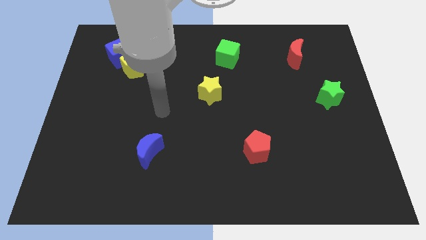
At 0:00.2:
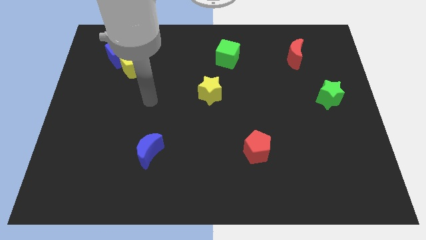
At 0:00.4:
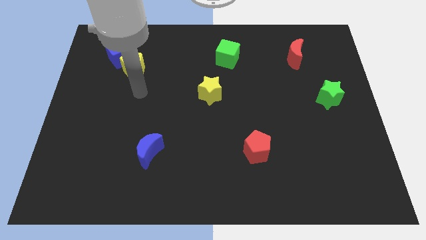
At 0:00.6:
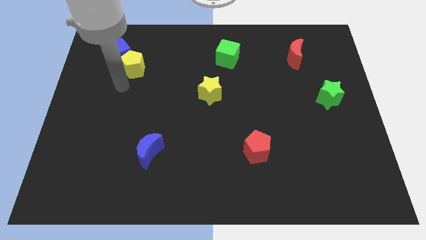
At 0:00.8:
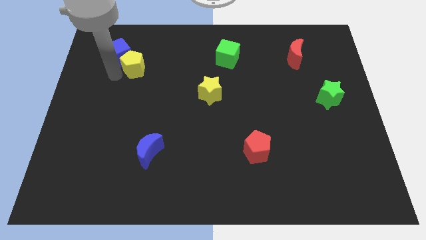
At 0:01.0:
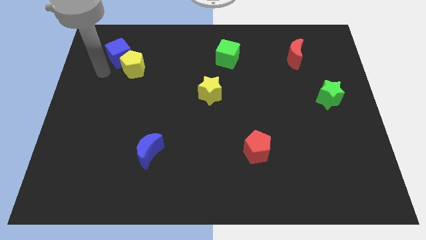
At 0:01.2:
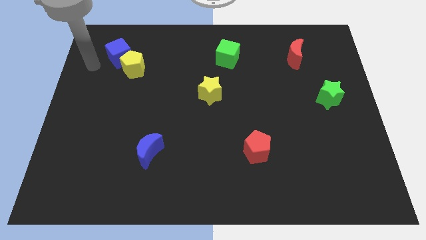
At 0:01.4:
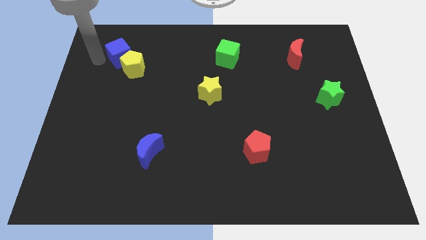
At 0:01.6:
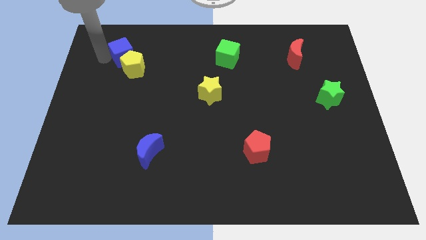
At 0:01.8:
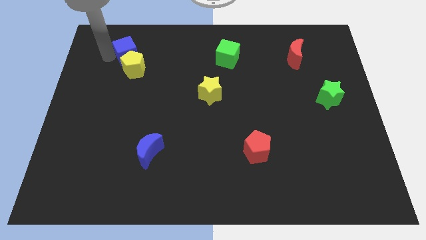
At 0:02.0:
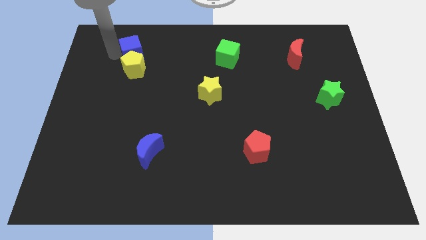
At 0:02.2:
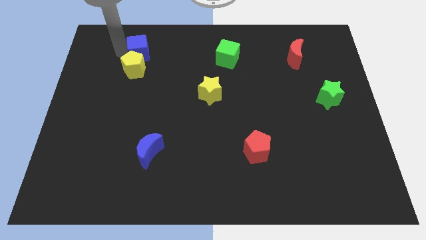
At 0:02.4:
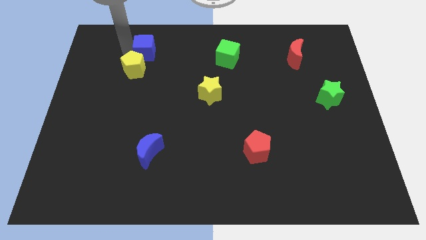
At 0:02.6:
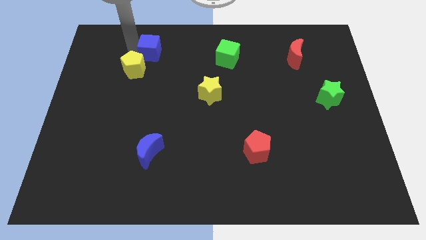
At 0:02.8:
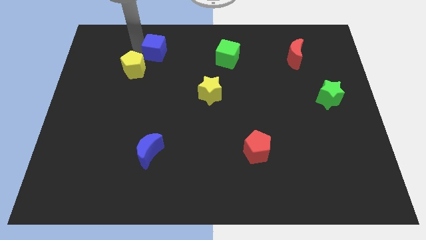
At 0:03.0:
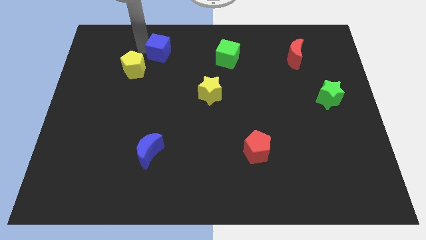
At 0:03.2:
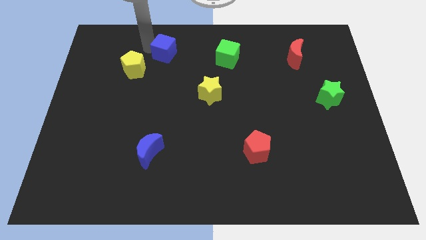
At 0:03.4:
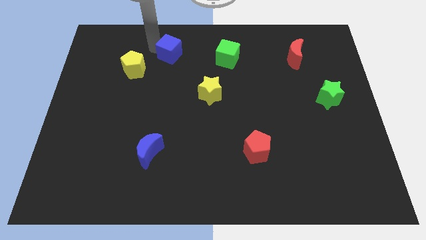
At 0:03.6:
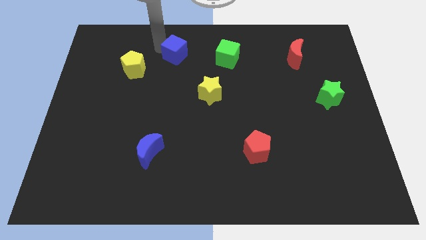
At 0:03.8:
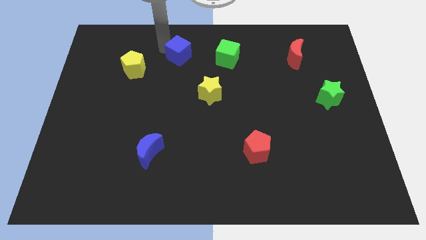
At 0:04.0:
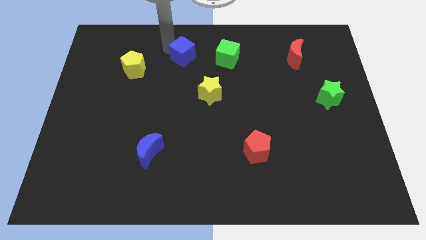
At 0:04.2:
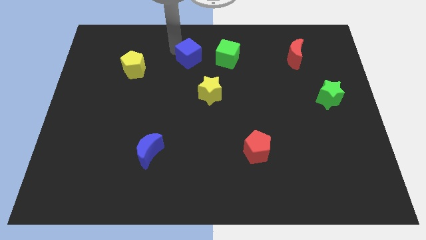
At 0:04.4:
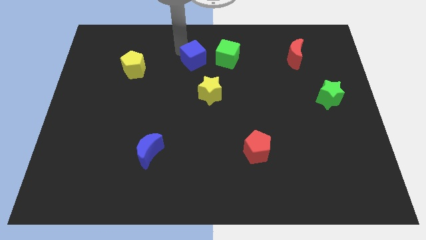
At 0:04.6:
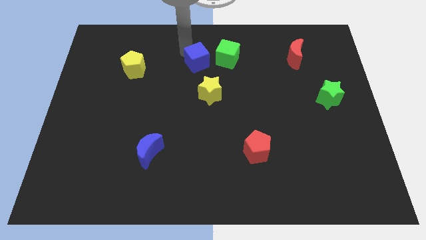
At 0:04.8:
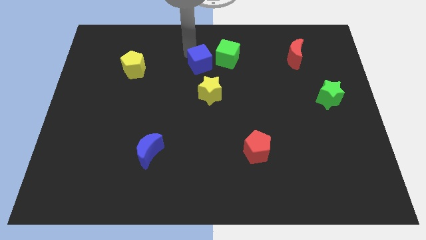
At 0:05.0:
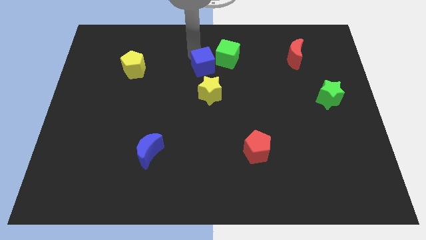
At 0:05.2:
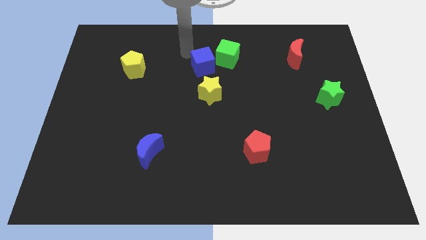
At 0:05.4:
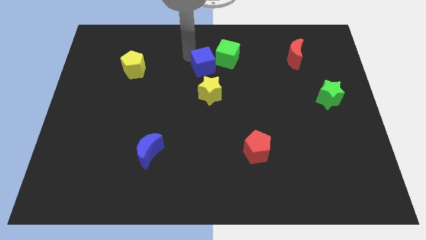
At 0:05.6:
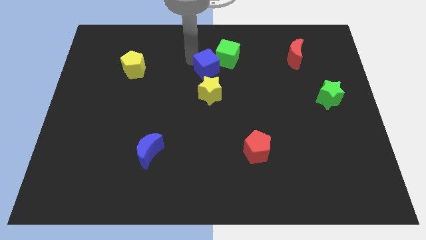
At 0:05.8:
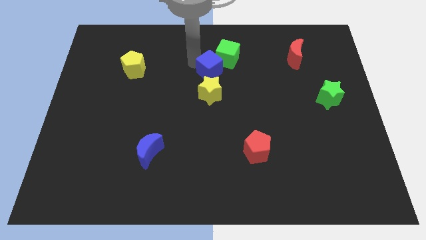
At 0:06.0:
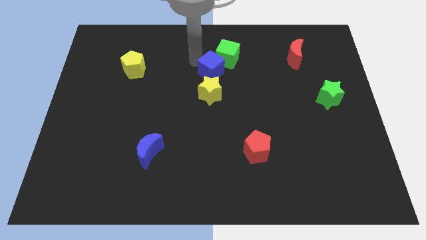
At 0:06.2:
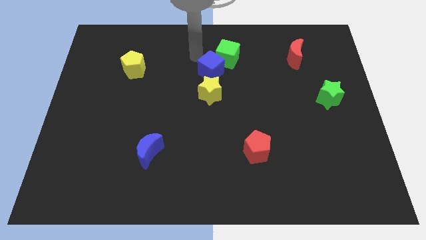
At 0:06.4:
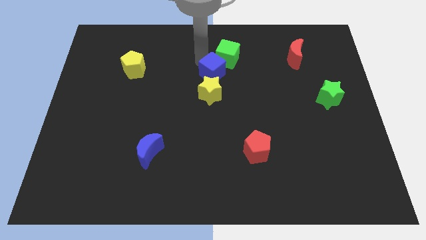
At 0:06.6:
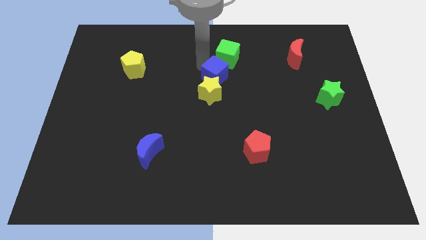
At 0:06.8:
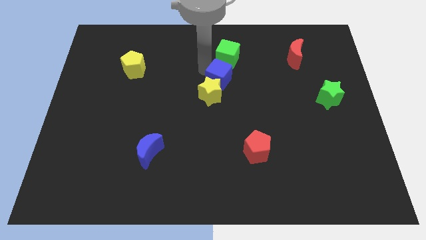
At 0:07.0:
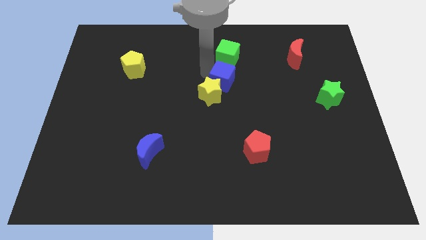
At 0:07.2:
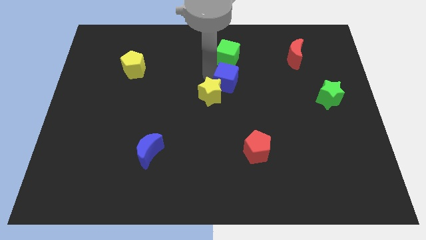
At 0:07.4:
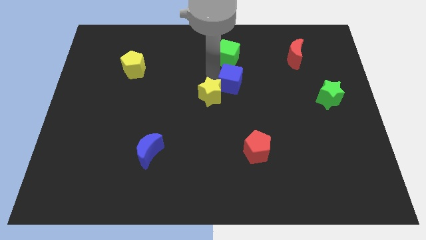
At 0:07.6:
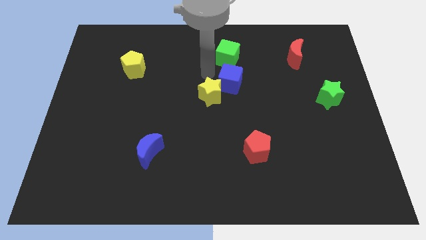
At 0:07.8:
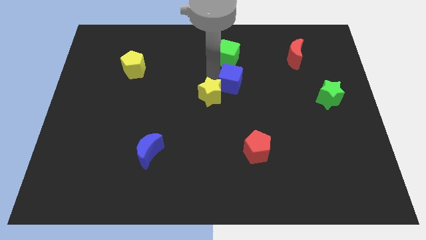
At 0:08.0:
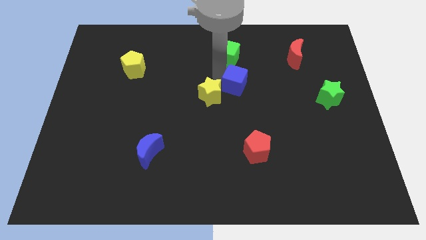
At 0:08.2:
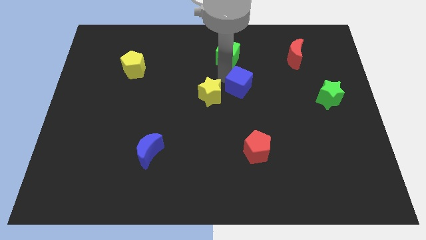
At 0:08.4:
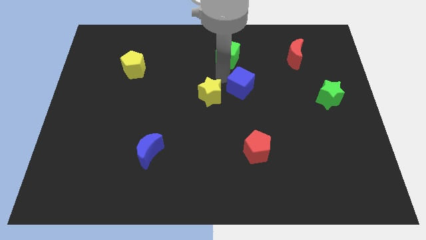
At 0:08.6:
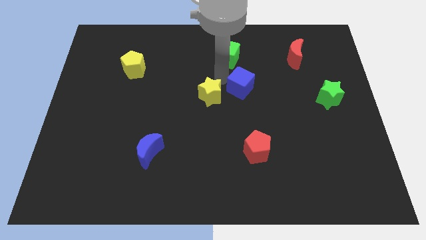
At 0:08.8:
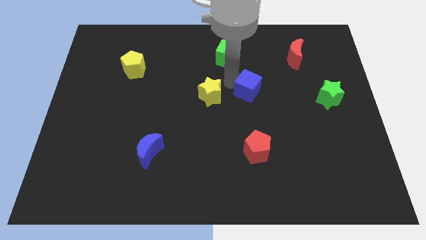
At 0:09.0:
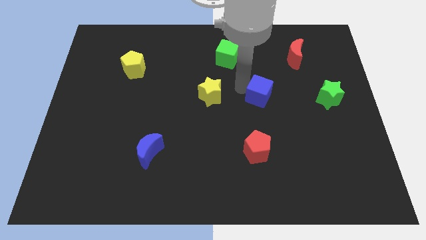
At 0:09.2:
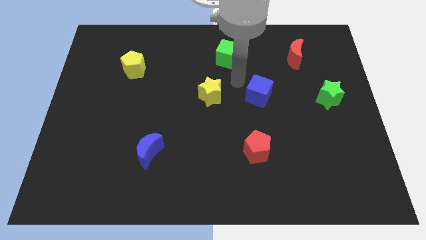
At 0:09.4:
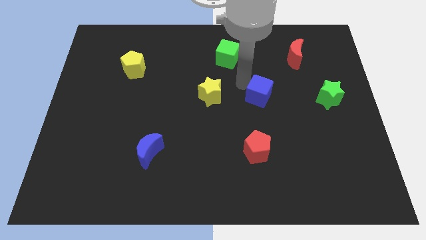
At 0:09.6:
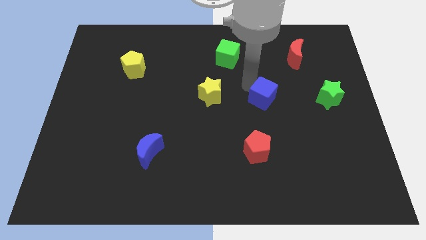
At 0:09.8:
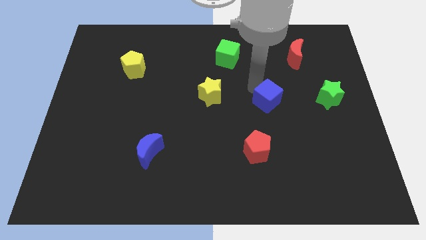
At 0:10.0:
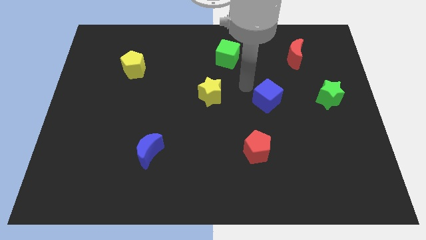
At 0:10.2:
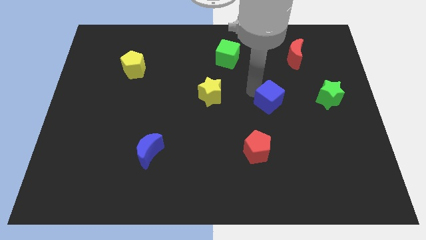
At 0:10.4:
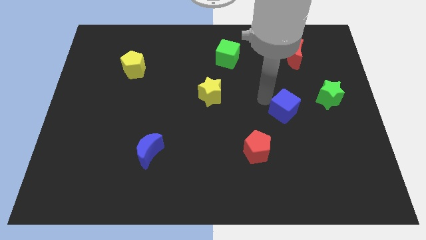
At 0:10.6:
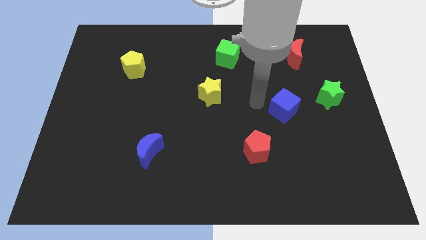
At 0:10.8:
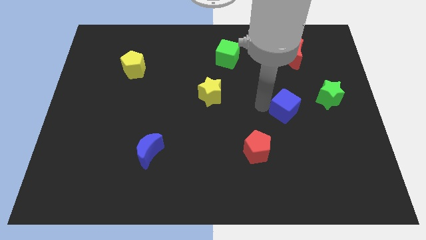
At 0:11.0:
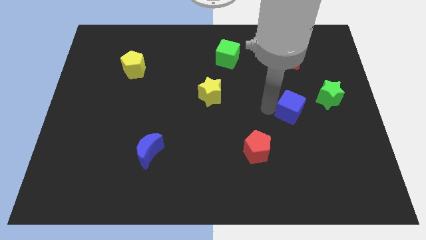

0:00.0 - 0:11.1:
slide the blue cube to the bottom left side of the green star

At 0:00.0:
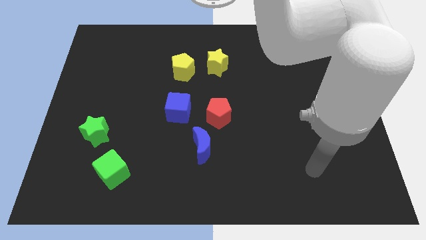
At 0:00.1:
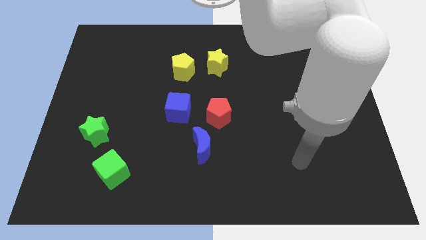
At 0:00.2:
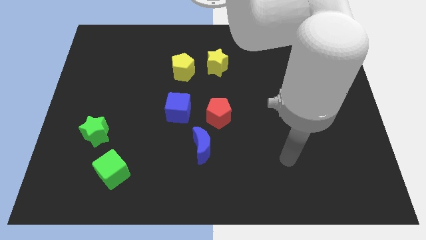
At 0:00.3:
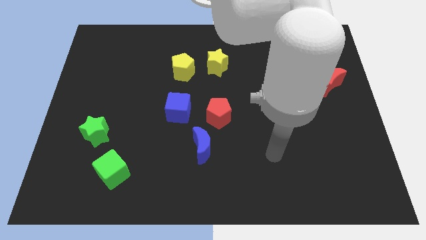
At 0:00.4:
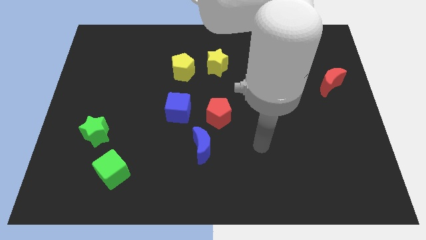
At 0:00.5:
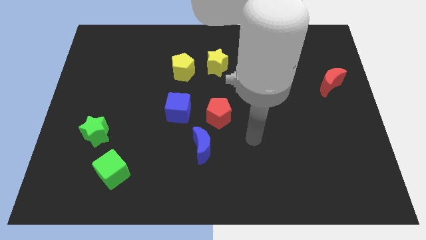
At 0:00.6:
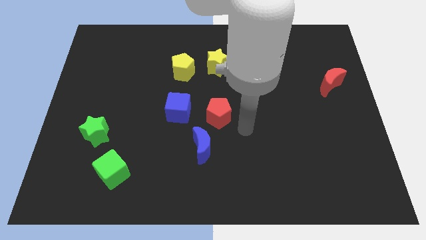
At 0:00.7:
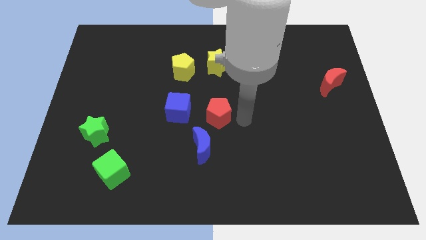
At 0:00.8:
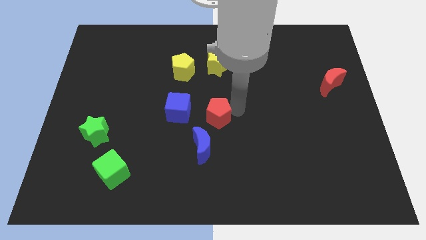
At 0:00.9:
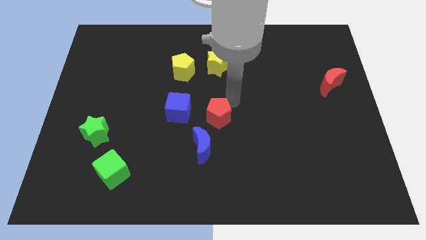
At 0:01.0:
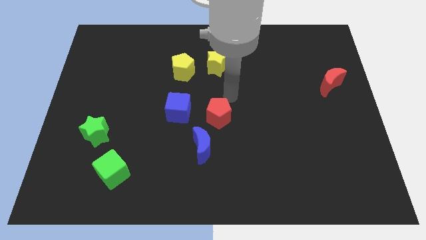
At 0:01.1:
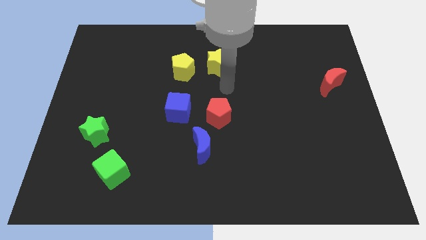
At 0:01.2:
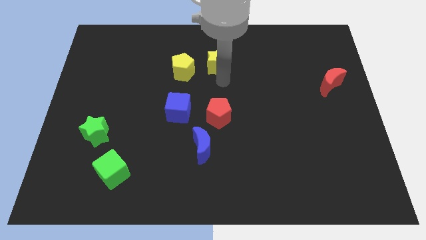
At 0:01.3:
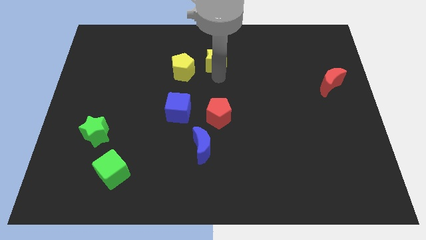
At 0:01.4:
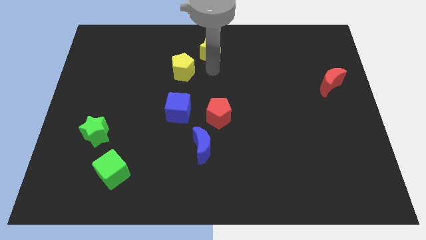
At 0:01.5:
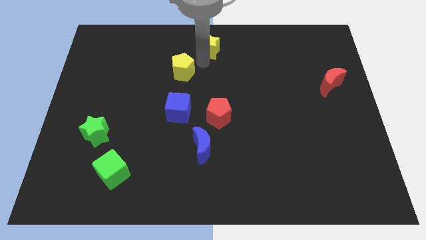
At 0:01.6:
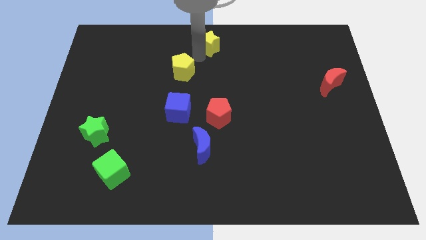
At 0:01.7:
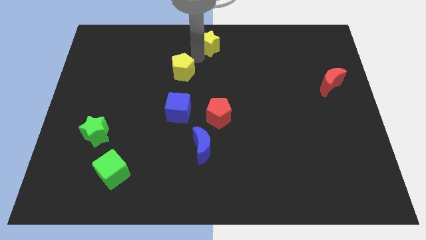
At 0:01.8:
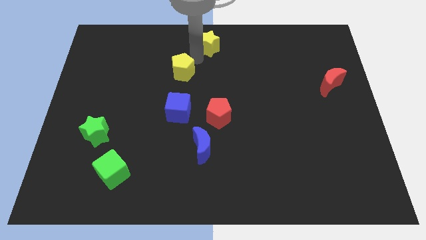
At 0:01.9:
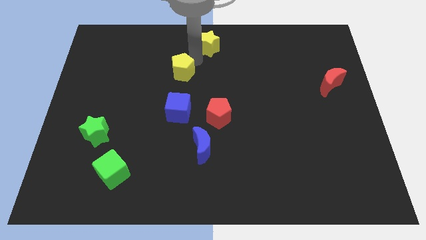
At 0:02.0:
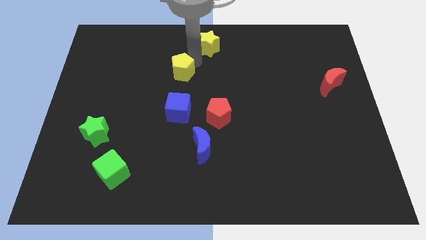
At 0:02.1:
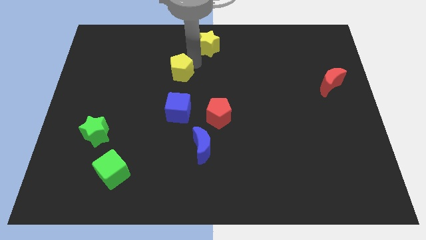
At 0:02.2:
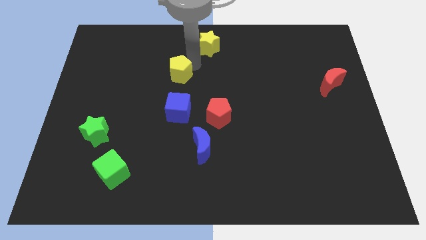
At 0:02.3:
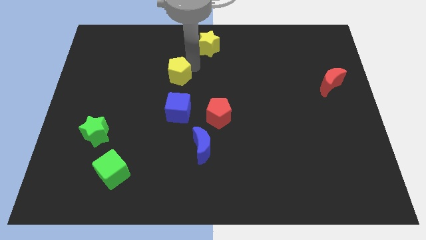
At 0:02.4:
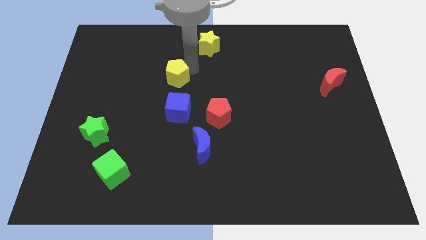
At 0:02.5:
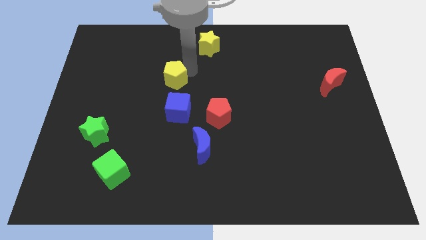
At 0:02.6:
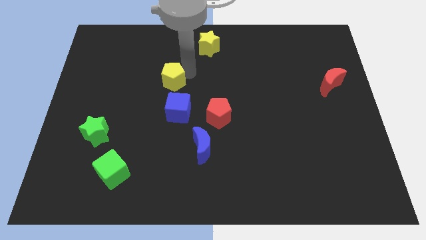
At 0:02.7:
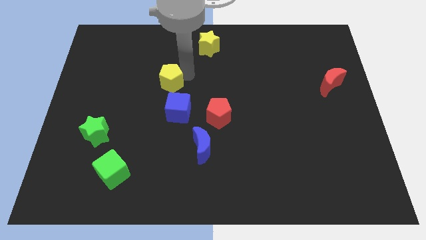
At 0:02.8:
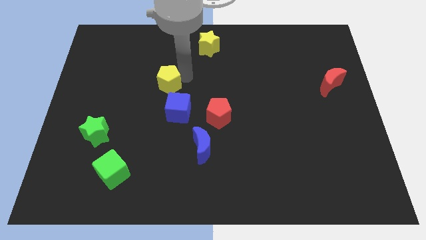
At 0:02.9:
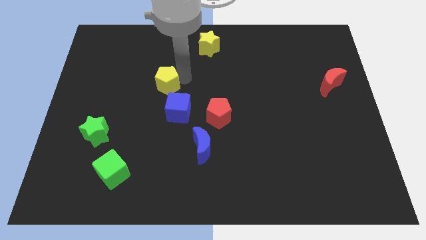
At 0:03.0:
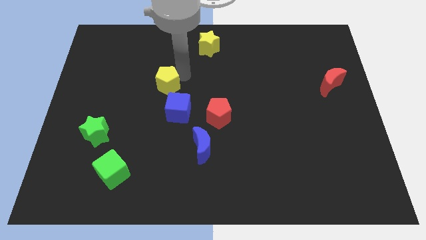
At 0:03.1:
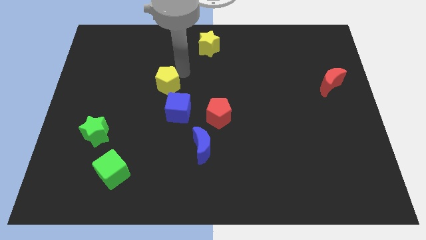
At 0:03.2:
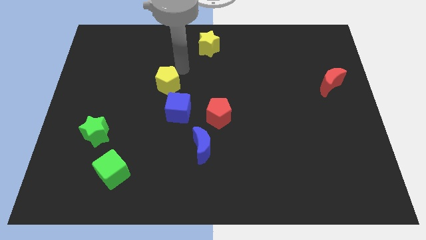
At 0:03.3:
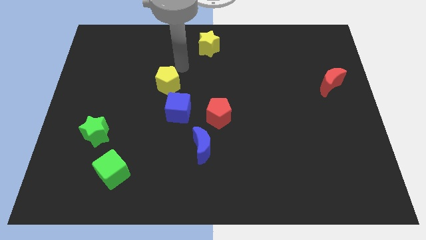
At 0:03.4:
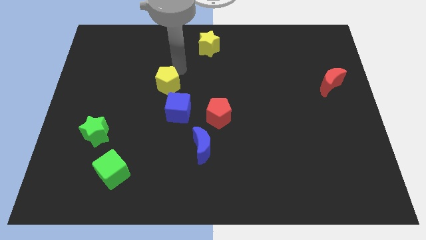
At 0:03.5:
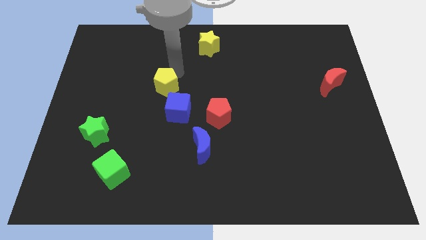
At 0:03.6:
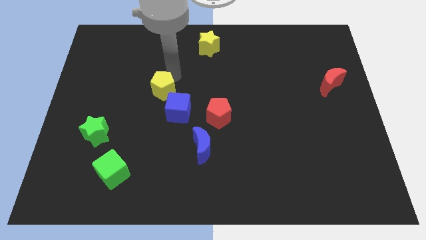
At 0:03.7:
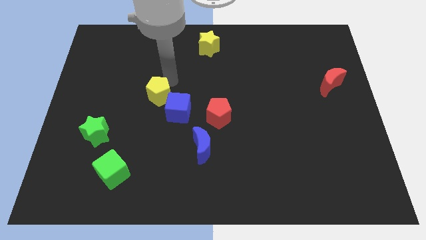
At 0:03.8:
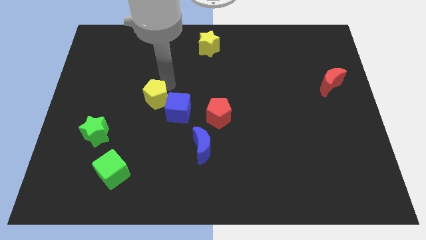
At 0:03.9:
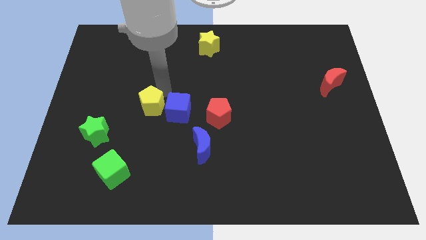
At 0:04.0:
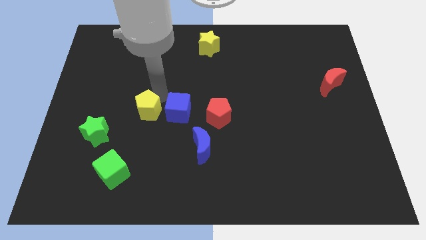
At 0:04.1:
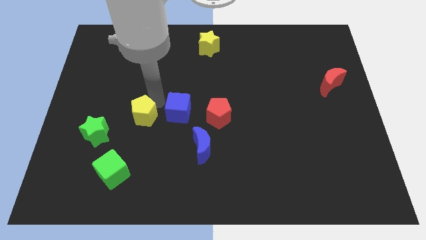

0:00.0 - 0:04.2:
push the yellow pentagon to the top right of the green star
